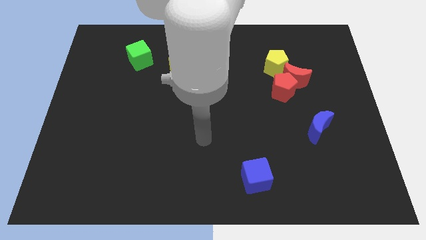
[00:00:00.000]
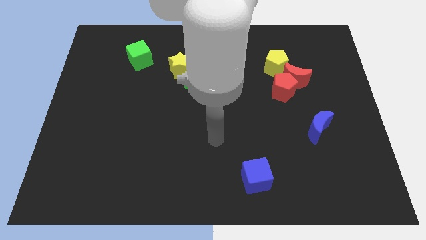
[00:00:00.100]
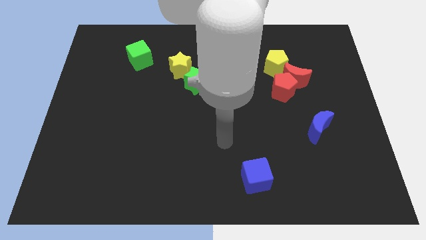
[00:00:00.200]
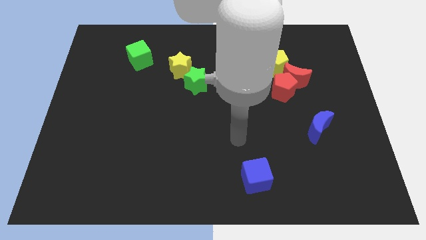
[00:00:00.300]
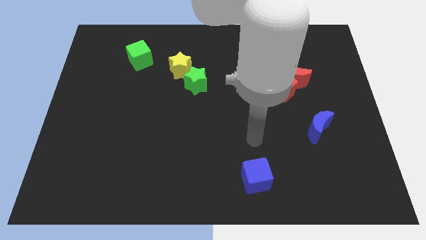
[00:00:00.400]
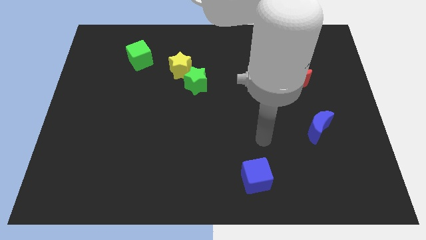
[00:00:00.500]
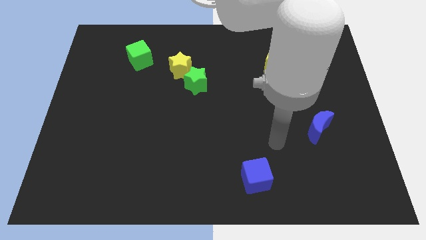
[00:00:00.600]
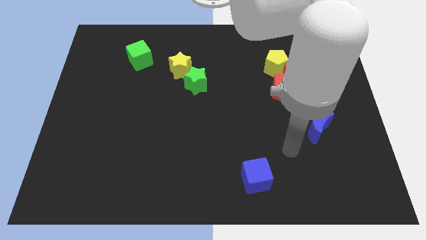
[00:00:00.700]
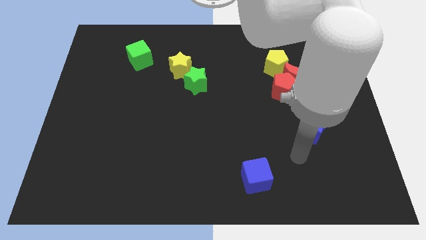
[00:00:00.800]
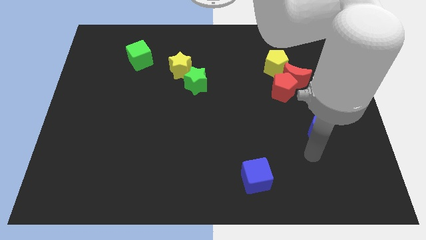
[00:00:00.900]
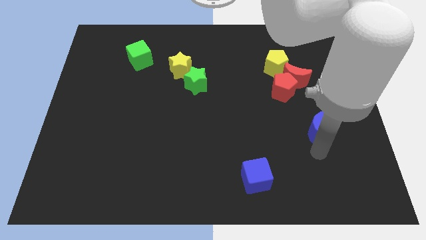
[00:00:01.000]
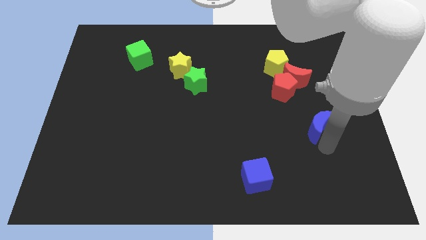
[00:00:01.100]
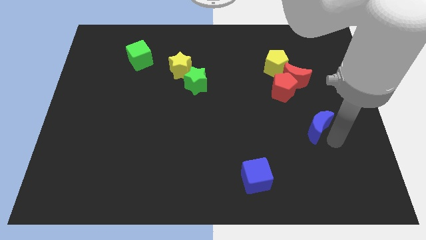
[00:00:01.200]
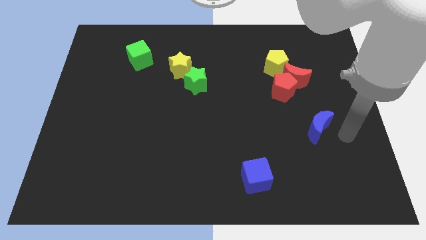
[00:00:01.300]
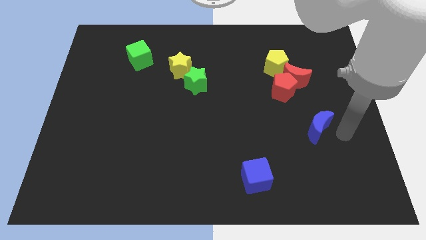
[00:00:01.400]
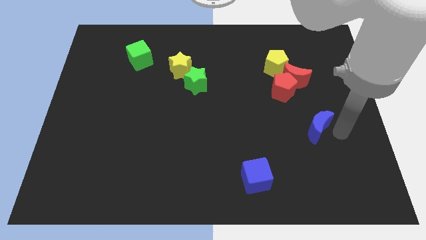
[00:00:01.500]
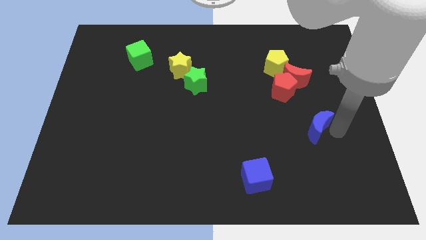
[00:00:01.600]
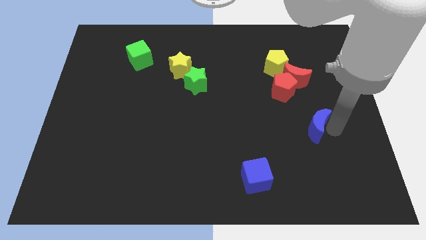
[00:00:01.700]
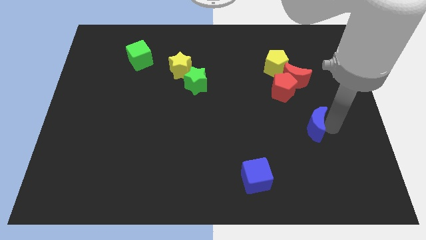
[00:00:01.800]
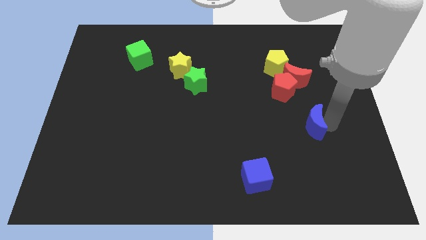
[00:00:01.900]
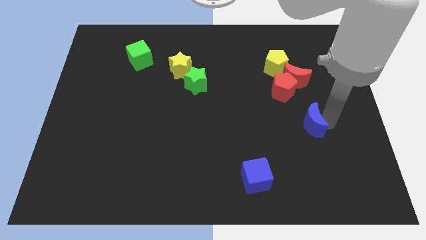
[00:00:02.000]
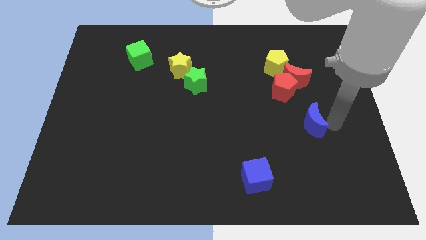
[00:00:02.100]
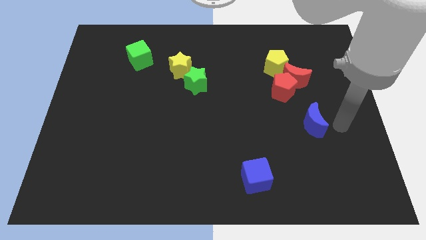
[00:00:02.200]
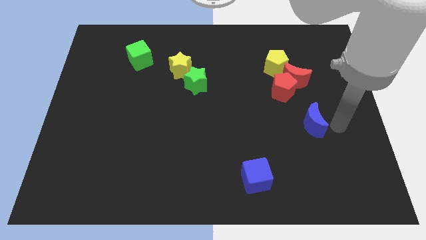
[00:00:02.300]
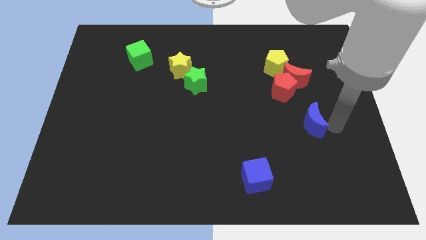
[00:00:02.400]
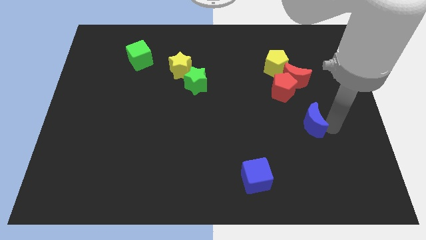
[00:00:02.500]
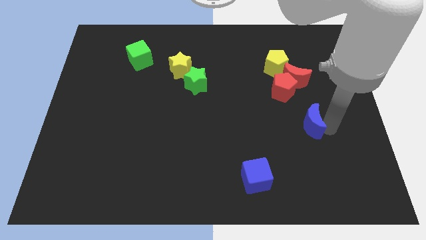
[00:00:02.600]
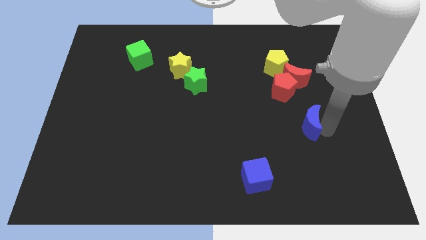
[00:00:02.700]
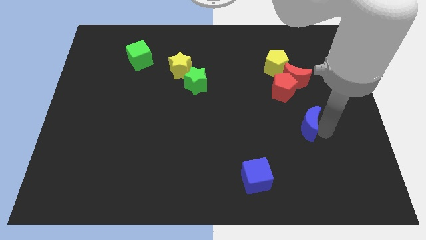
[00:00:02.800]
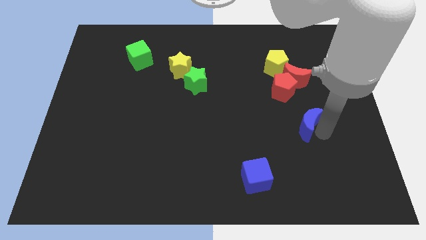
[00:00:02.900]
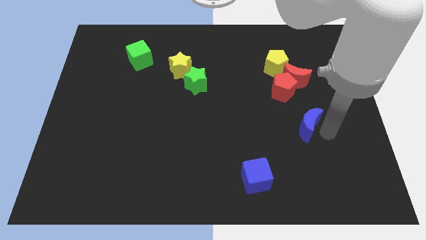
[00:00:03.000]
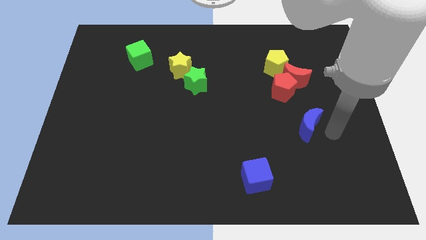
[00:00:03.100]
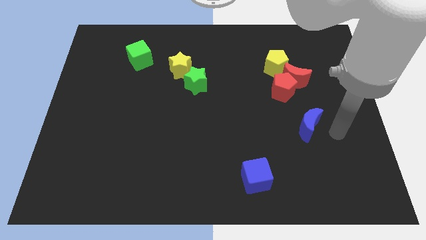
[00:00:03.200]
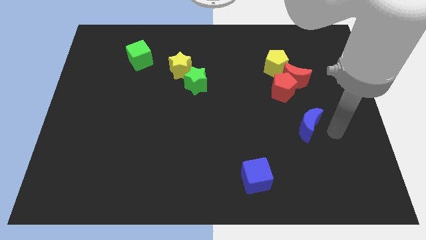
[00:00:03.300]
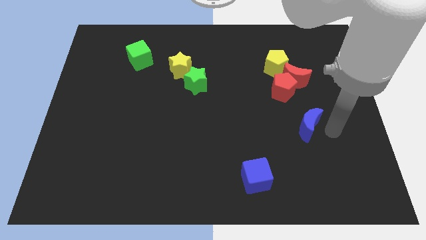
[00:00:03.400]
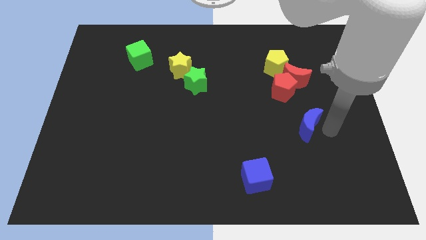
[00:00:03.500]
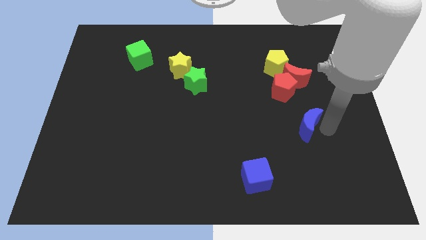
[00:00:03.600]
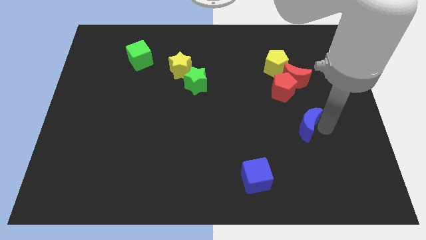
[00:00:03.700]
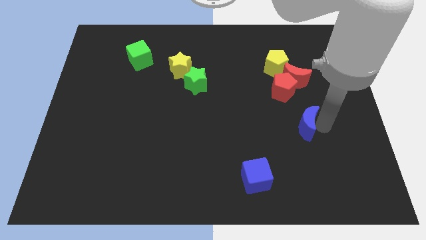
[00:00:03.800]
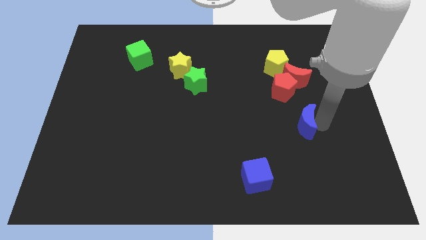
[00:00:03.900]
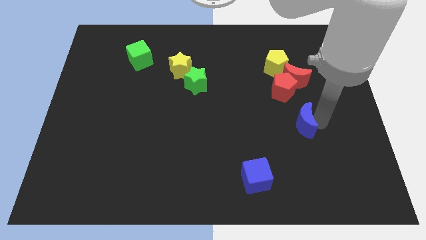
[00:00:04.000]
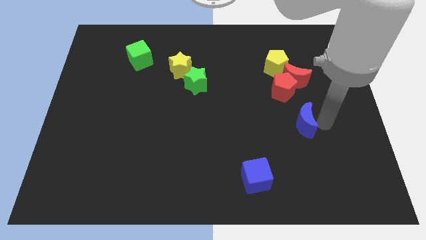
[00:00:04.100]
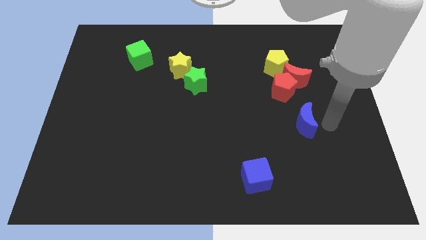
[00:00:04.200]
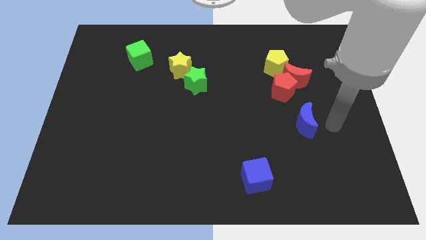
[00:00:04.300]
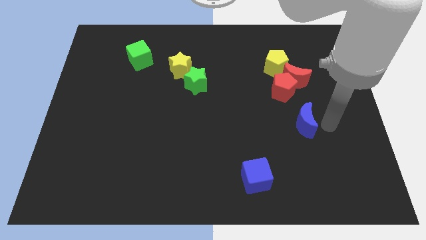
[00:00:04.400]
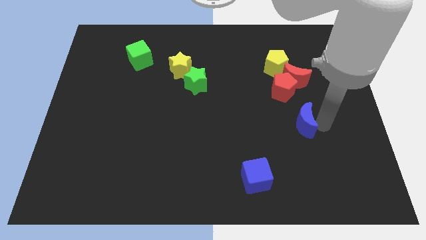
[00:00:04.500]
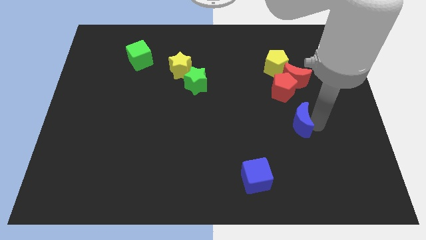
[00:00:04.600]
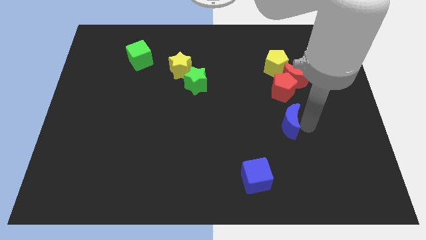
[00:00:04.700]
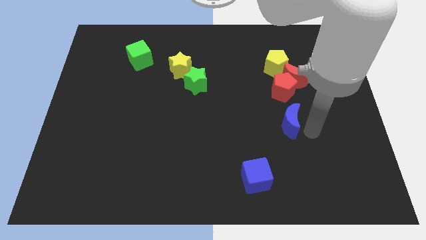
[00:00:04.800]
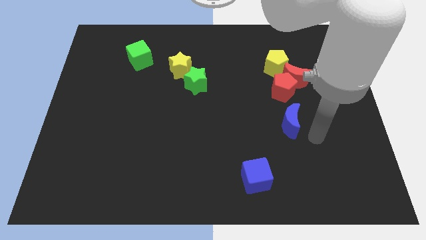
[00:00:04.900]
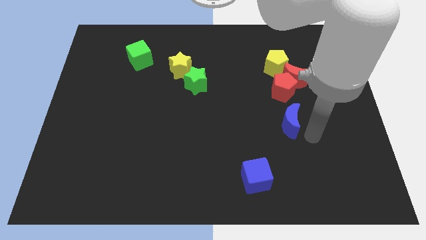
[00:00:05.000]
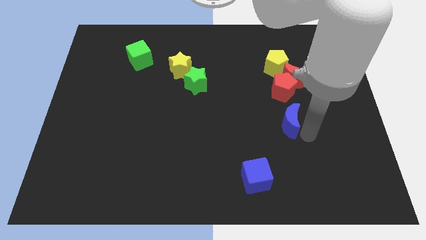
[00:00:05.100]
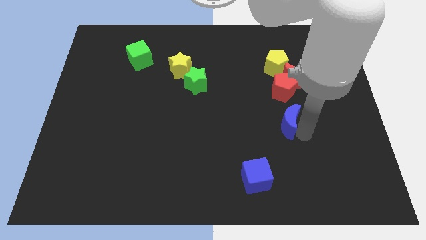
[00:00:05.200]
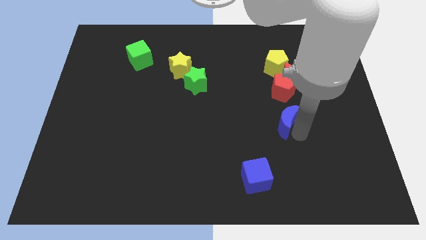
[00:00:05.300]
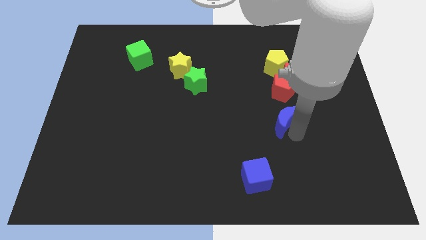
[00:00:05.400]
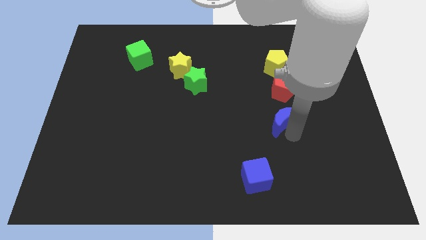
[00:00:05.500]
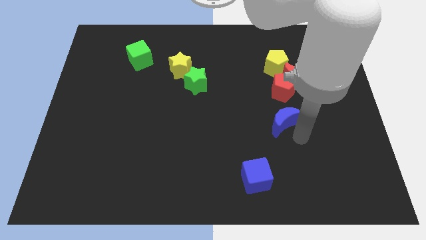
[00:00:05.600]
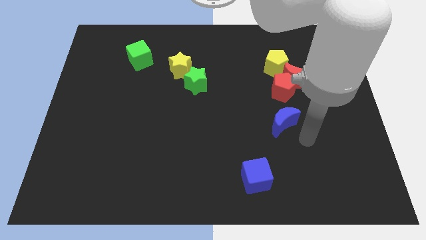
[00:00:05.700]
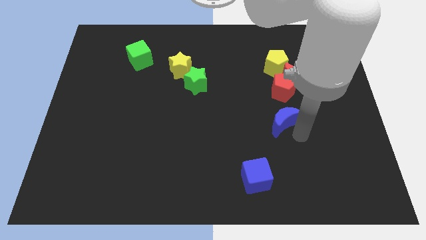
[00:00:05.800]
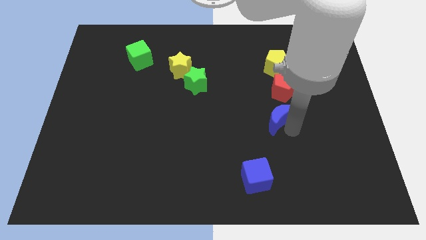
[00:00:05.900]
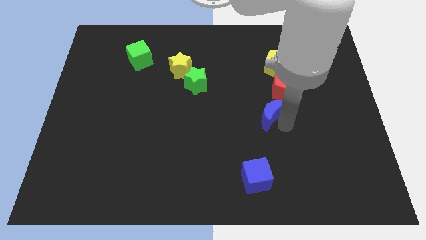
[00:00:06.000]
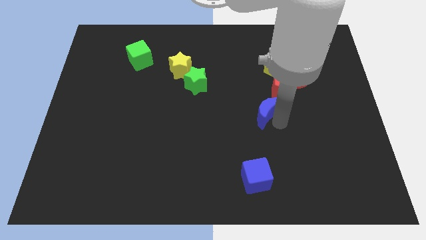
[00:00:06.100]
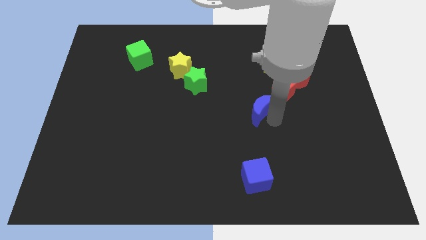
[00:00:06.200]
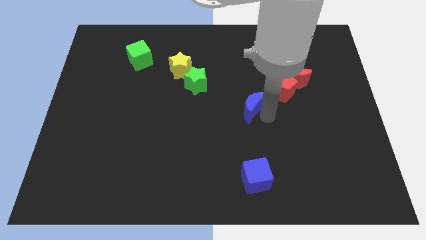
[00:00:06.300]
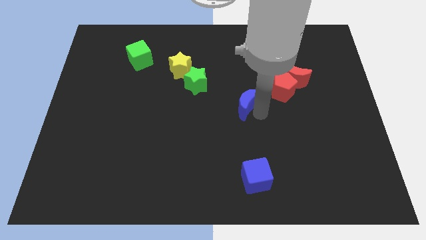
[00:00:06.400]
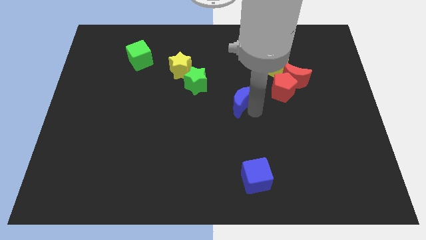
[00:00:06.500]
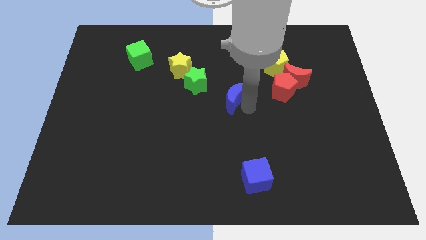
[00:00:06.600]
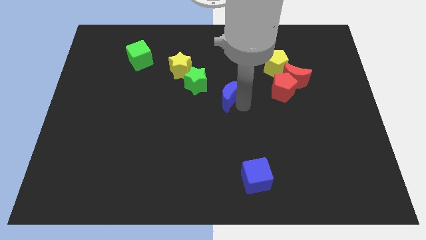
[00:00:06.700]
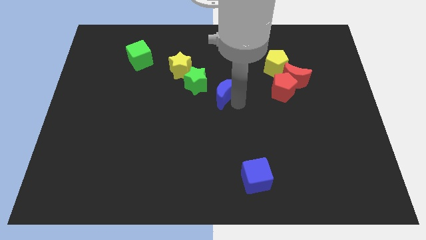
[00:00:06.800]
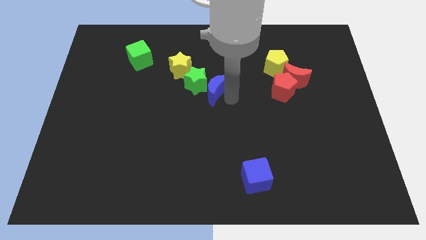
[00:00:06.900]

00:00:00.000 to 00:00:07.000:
move the blue moon close to the green star
